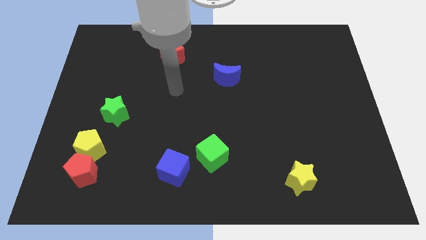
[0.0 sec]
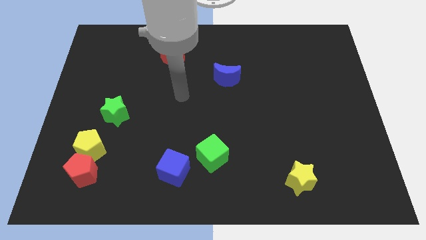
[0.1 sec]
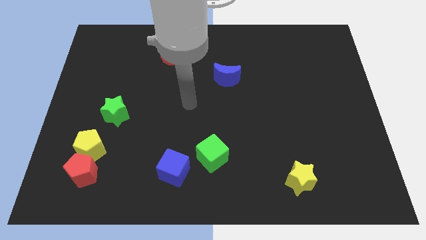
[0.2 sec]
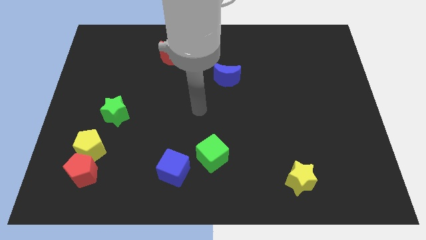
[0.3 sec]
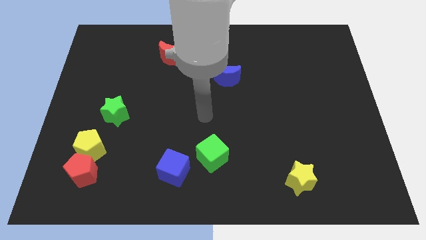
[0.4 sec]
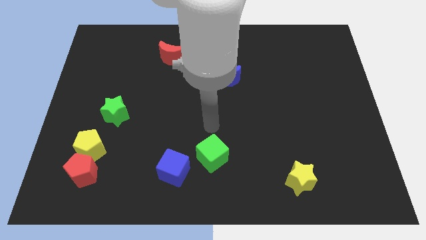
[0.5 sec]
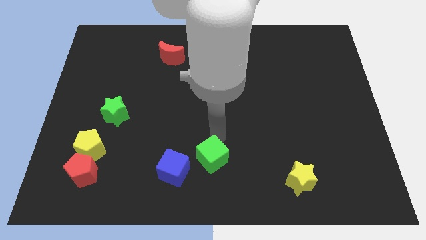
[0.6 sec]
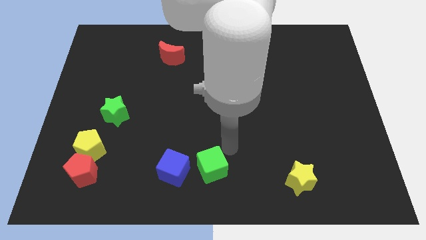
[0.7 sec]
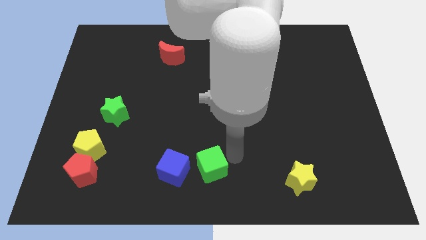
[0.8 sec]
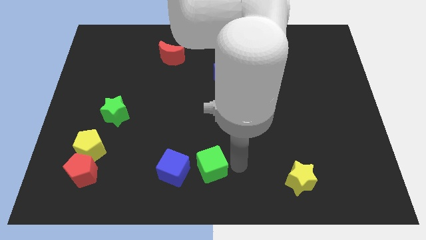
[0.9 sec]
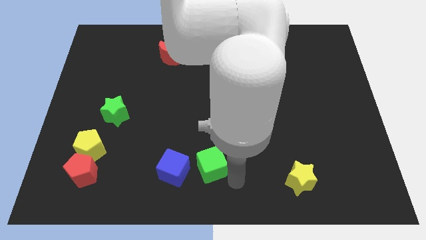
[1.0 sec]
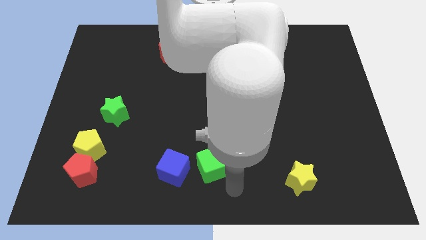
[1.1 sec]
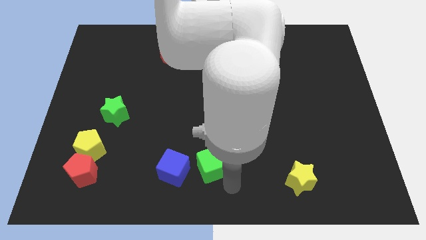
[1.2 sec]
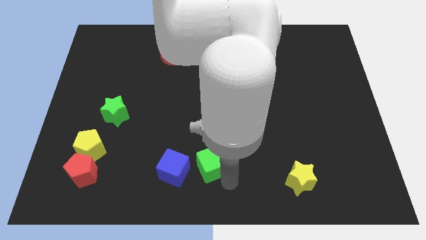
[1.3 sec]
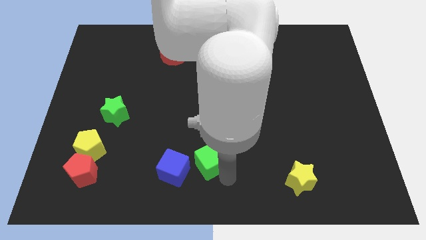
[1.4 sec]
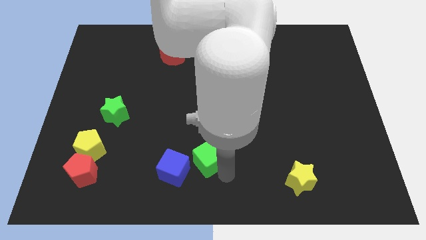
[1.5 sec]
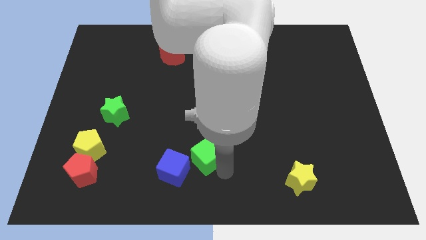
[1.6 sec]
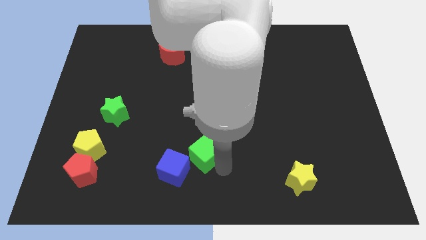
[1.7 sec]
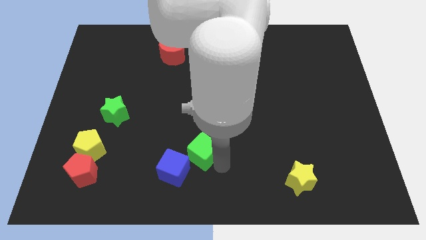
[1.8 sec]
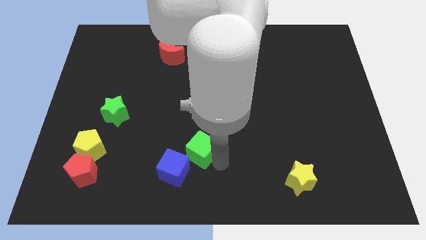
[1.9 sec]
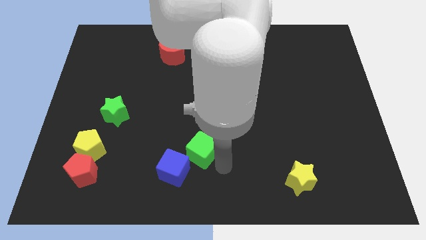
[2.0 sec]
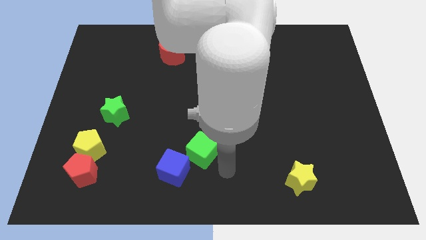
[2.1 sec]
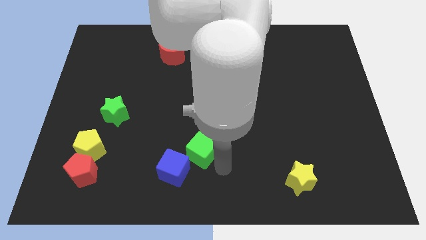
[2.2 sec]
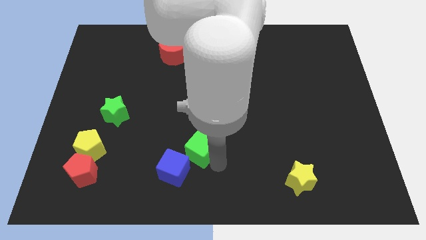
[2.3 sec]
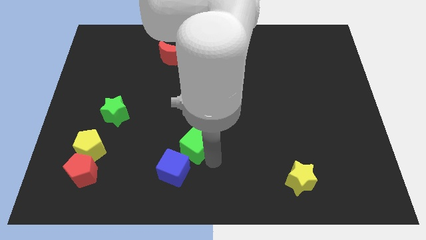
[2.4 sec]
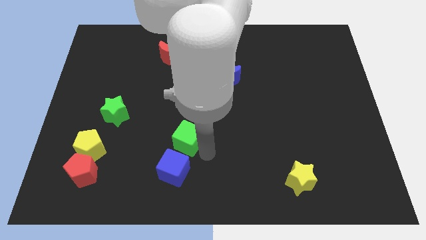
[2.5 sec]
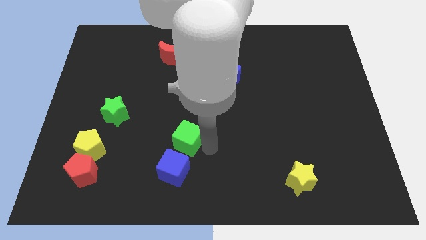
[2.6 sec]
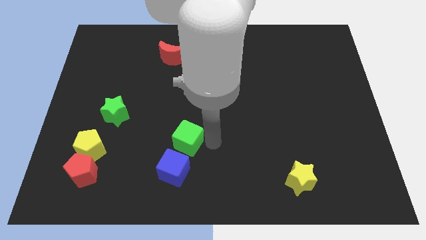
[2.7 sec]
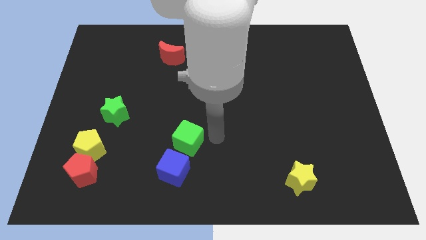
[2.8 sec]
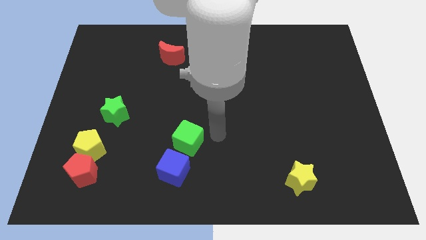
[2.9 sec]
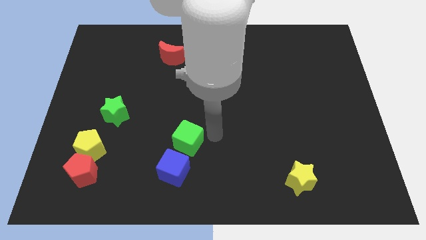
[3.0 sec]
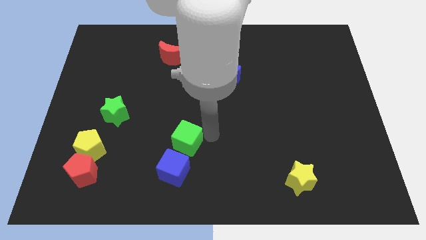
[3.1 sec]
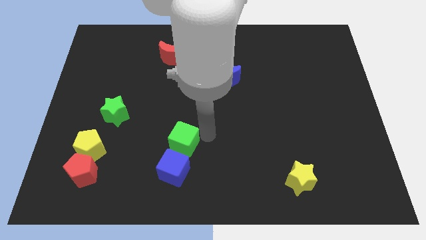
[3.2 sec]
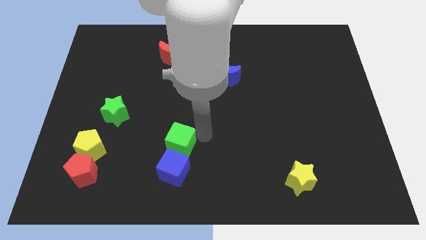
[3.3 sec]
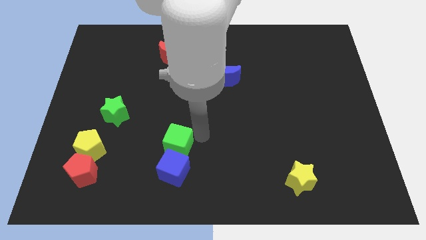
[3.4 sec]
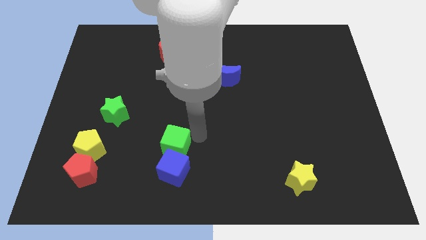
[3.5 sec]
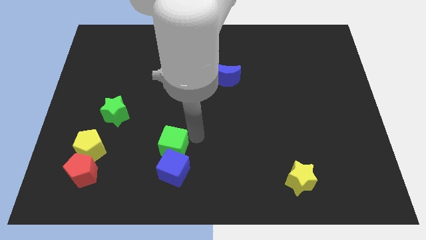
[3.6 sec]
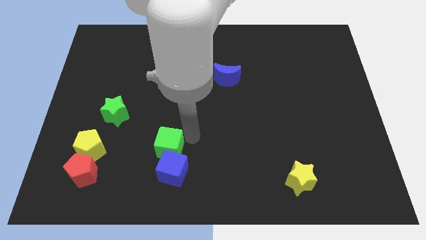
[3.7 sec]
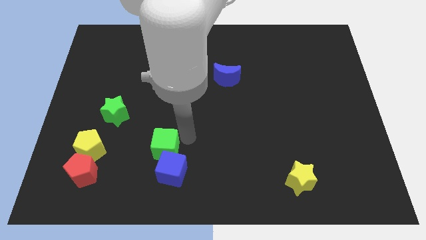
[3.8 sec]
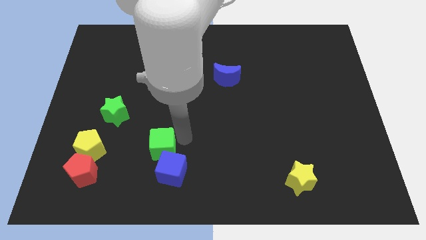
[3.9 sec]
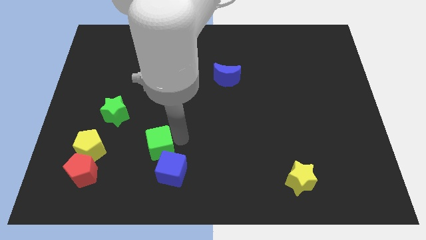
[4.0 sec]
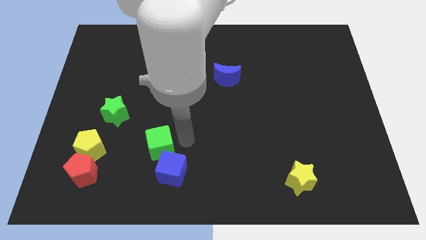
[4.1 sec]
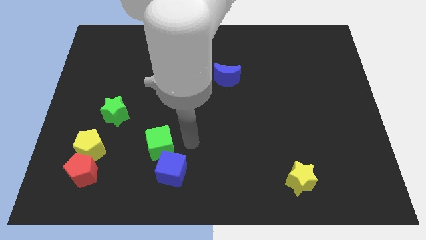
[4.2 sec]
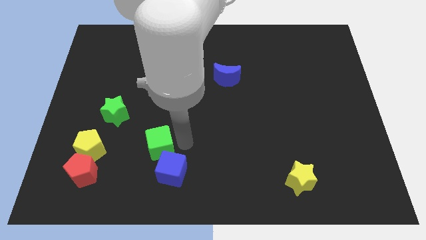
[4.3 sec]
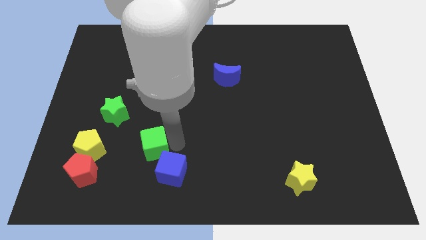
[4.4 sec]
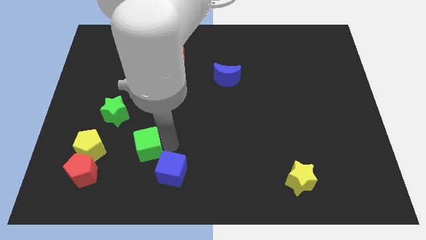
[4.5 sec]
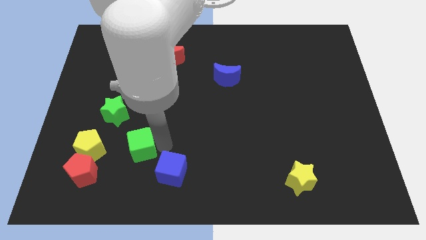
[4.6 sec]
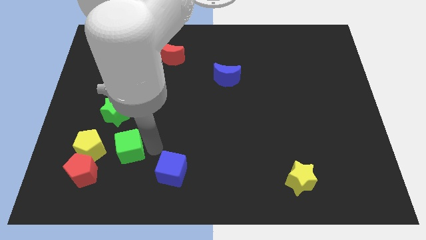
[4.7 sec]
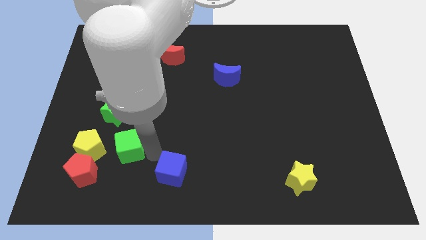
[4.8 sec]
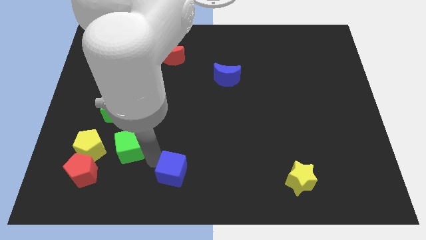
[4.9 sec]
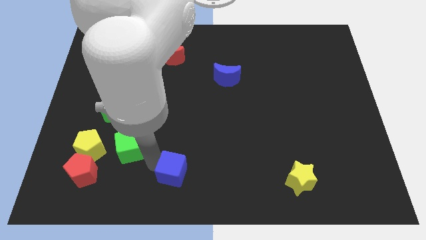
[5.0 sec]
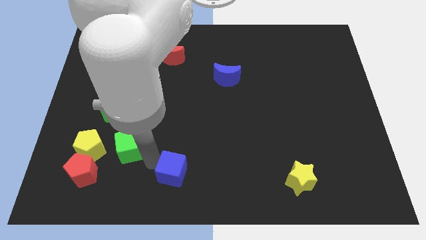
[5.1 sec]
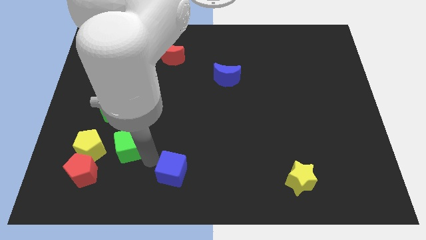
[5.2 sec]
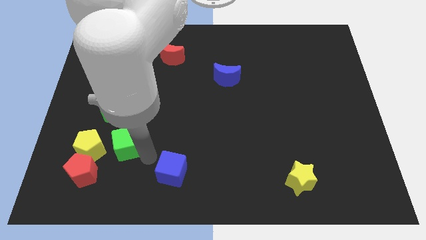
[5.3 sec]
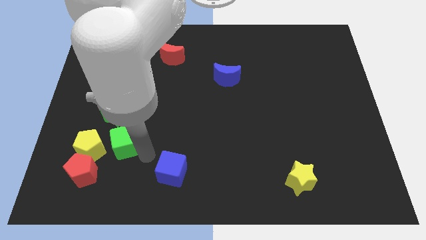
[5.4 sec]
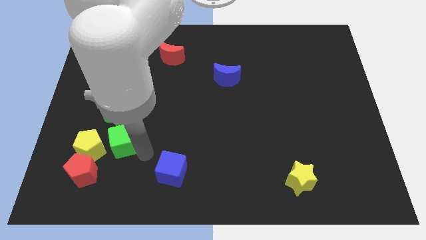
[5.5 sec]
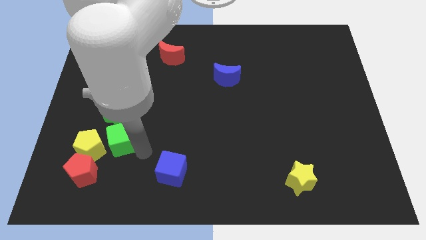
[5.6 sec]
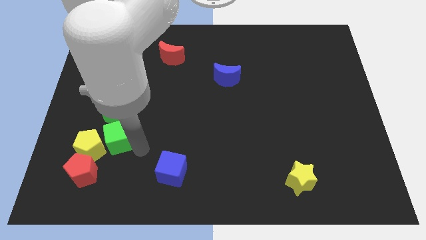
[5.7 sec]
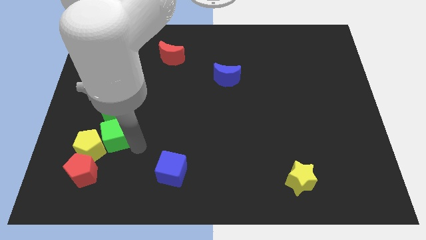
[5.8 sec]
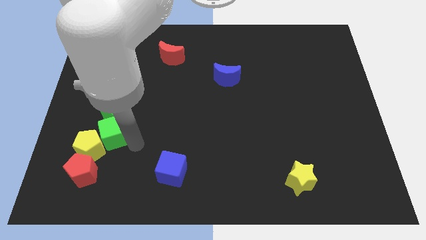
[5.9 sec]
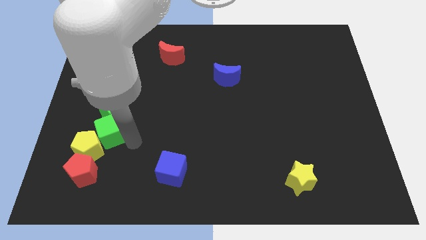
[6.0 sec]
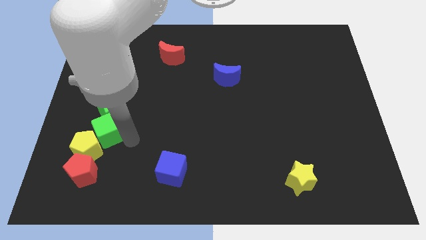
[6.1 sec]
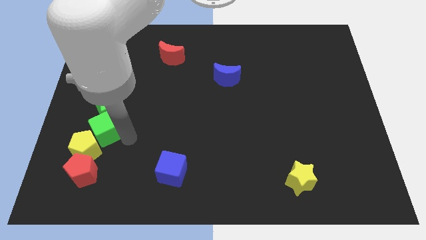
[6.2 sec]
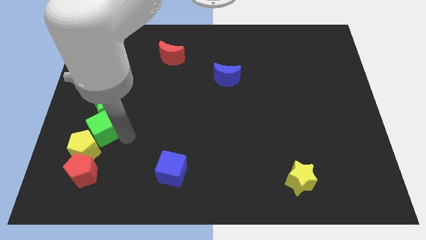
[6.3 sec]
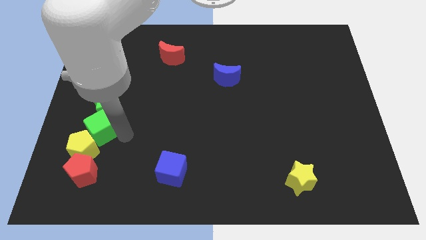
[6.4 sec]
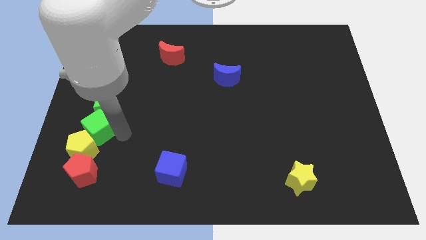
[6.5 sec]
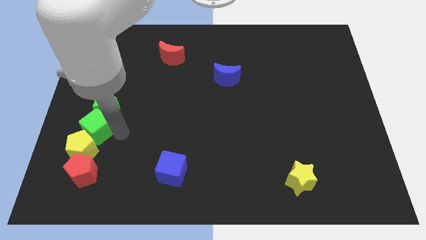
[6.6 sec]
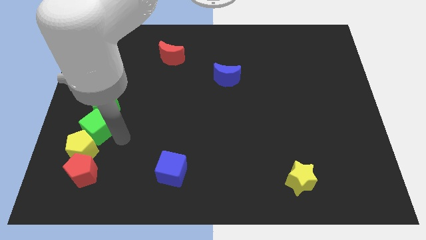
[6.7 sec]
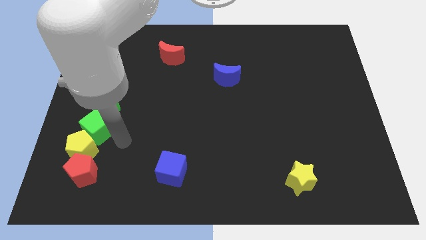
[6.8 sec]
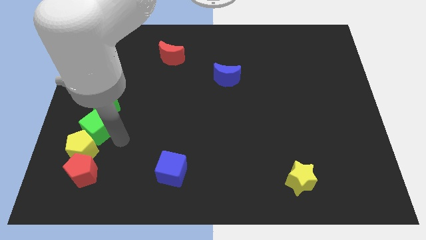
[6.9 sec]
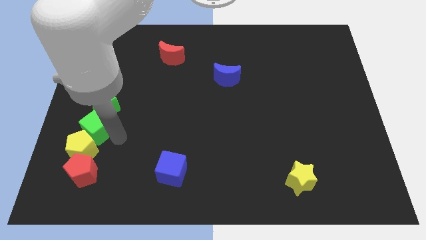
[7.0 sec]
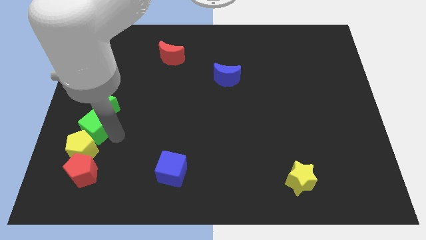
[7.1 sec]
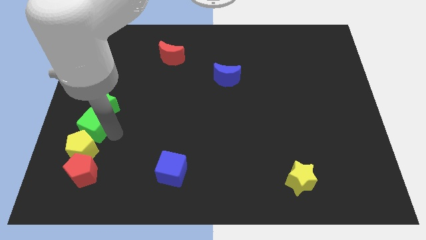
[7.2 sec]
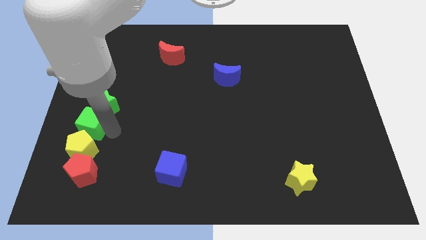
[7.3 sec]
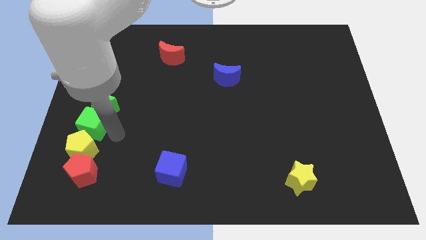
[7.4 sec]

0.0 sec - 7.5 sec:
slide the green cube to the center left
